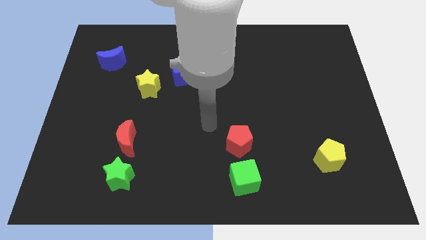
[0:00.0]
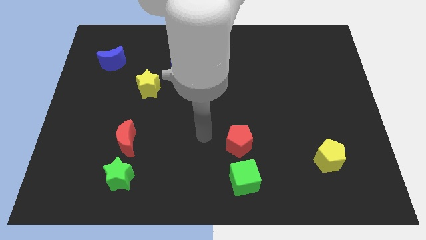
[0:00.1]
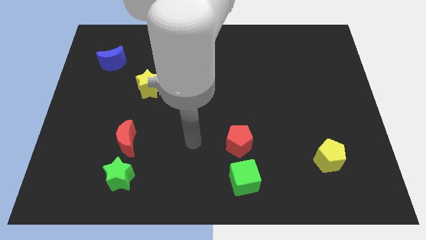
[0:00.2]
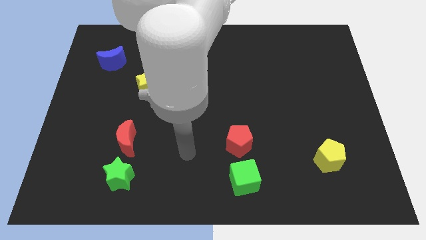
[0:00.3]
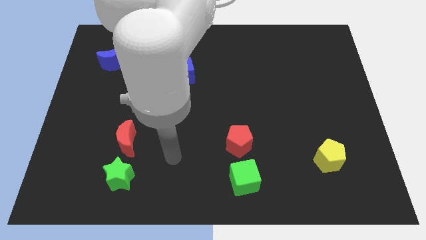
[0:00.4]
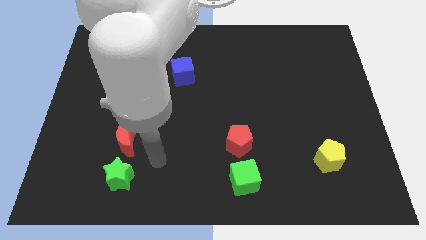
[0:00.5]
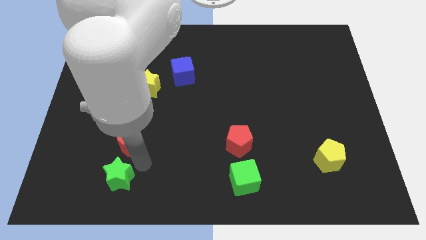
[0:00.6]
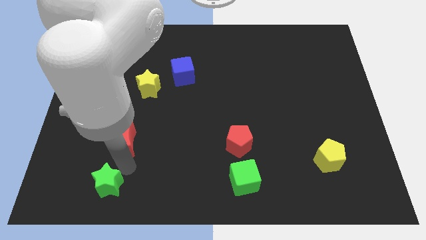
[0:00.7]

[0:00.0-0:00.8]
pull the red moon apart from the green star

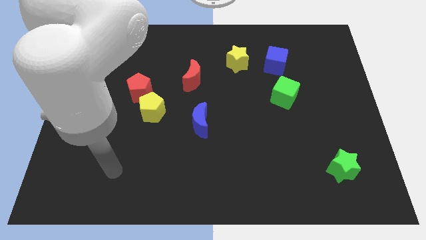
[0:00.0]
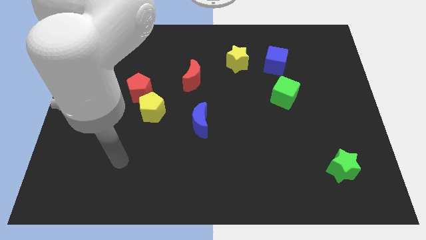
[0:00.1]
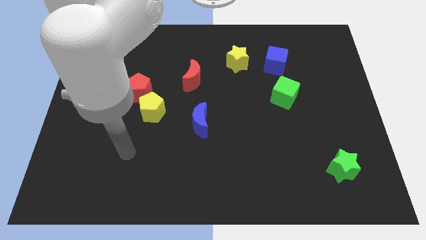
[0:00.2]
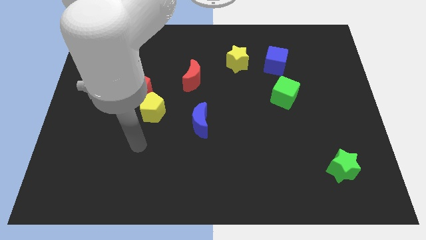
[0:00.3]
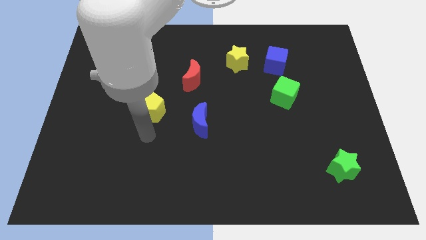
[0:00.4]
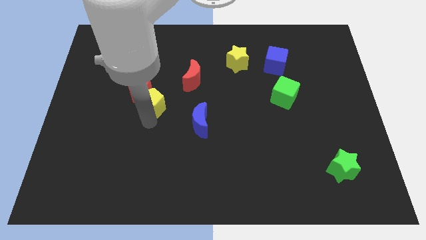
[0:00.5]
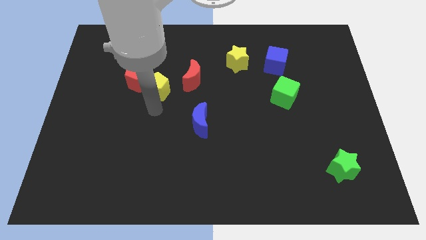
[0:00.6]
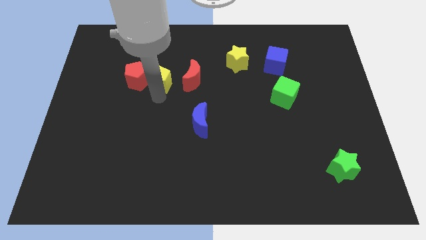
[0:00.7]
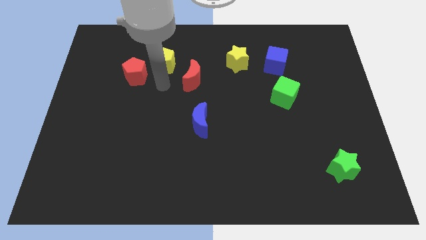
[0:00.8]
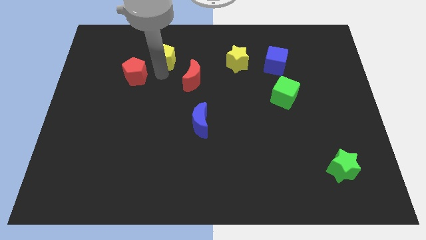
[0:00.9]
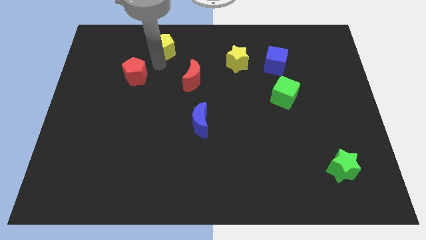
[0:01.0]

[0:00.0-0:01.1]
separate the red pentagon from the yellow pentagon

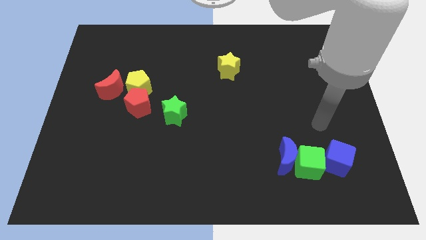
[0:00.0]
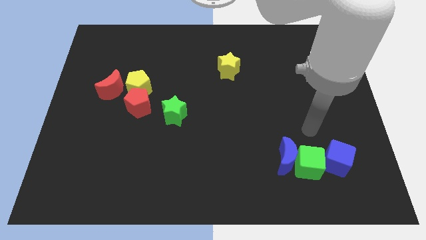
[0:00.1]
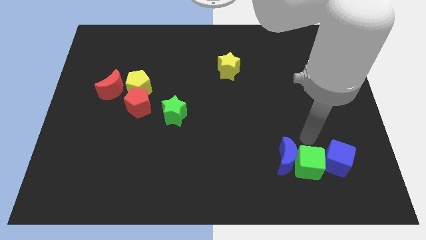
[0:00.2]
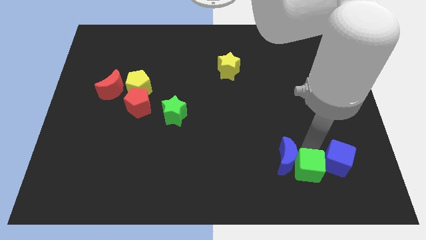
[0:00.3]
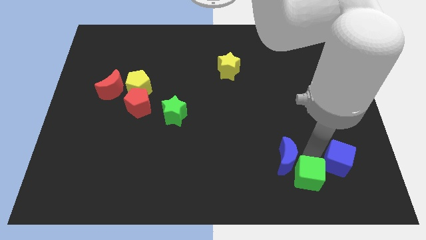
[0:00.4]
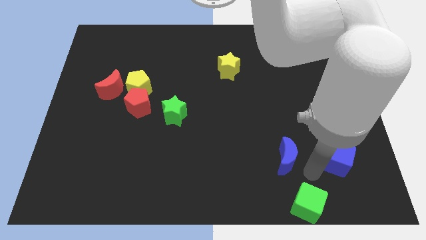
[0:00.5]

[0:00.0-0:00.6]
move the blue moon away from the green cube

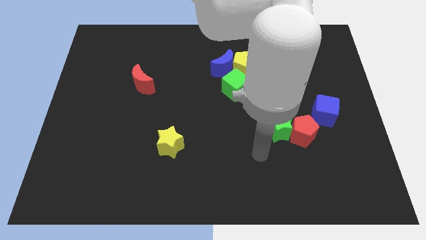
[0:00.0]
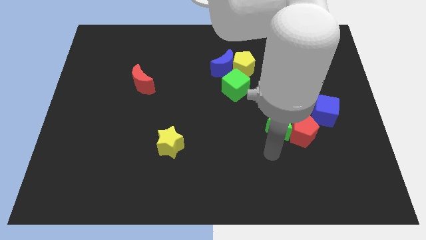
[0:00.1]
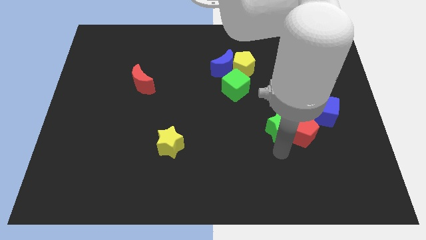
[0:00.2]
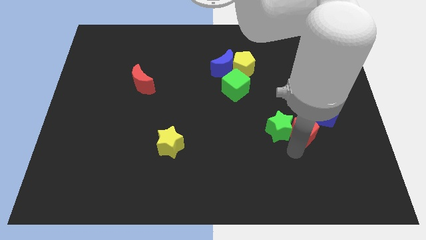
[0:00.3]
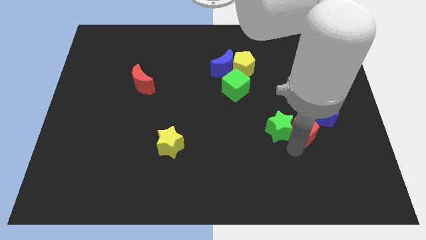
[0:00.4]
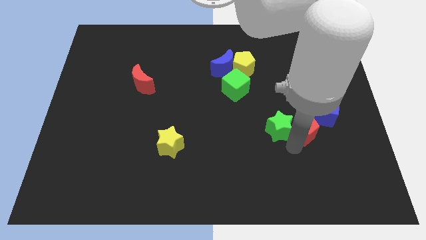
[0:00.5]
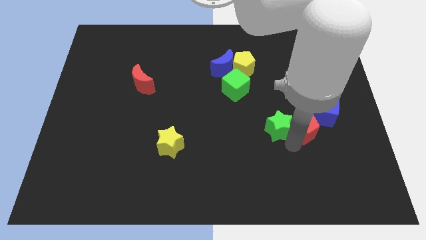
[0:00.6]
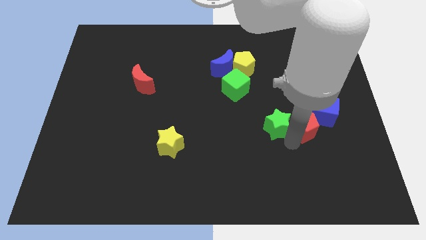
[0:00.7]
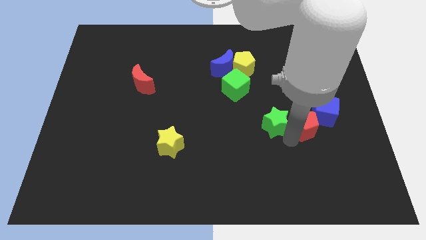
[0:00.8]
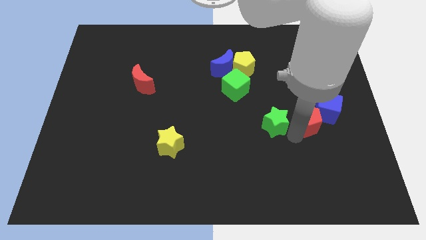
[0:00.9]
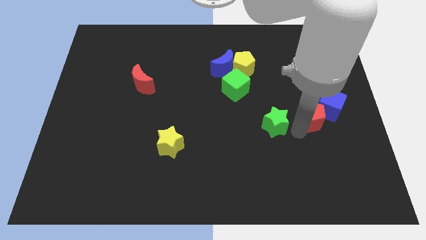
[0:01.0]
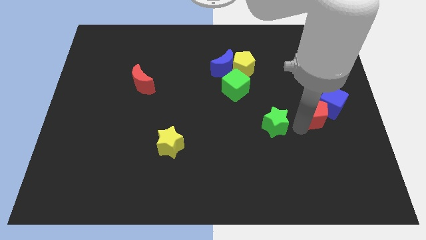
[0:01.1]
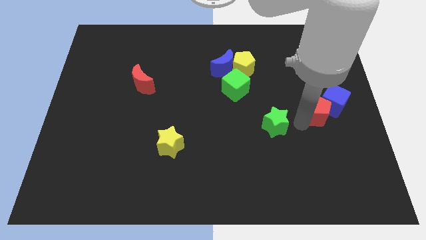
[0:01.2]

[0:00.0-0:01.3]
move the green star away from the red pentagon

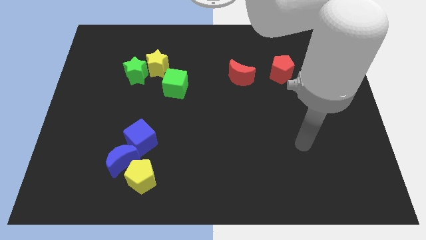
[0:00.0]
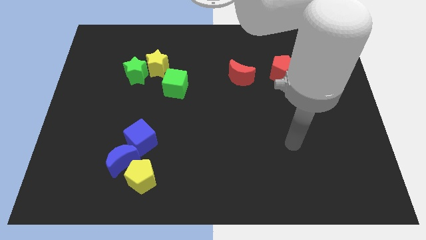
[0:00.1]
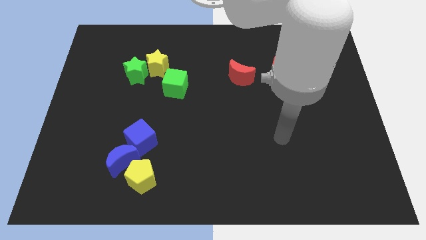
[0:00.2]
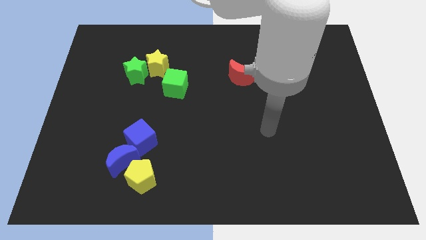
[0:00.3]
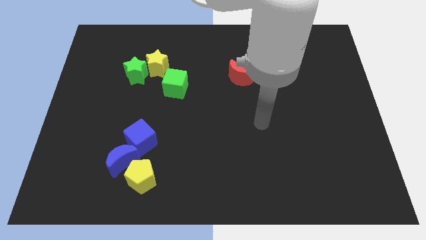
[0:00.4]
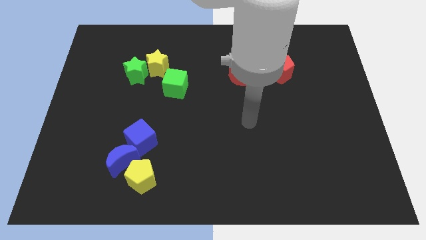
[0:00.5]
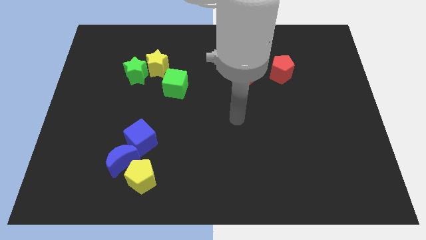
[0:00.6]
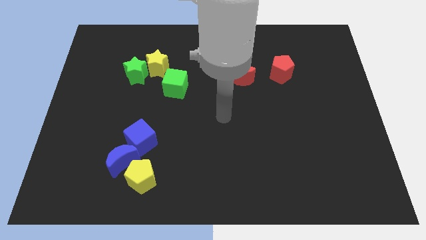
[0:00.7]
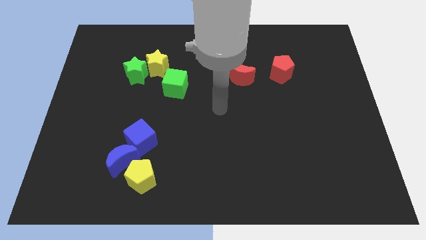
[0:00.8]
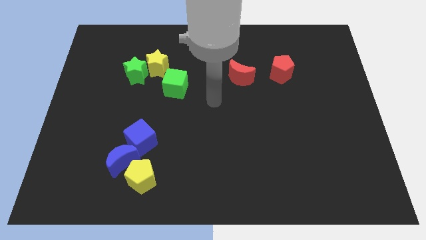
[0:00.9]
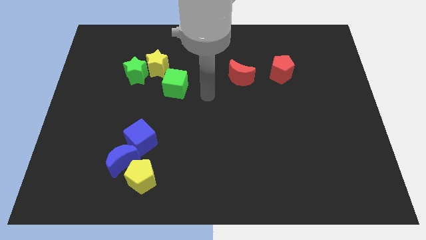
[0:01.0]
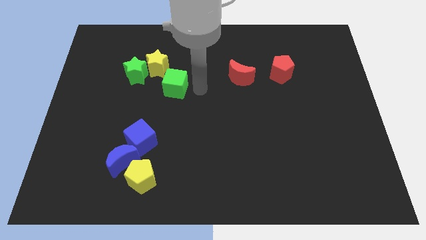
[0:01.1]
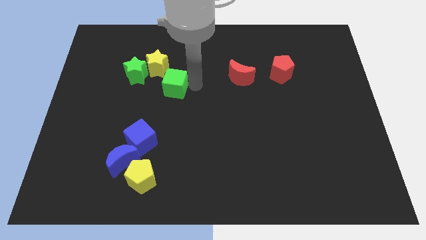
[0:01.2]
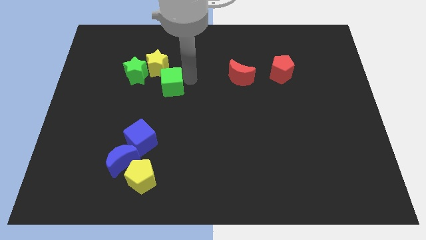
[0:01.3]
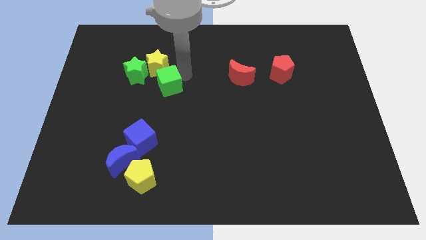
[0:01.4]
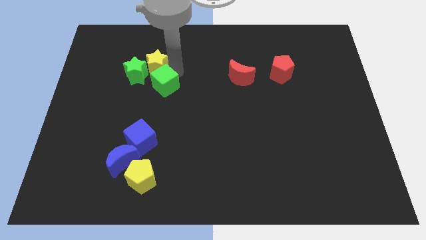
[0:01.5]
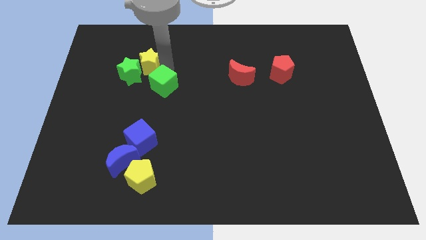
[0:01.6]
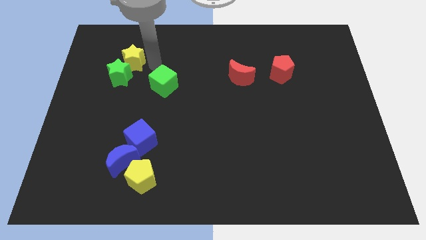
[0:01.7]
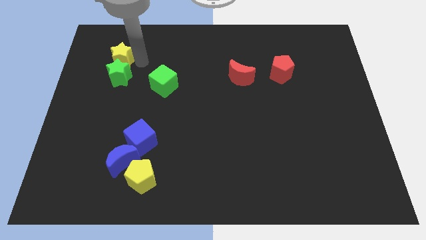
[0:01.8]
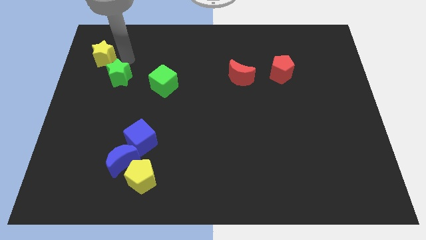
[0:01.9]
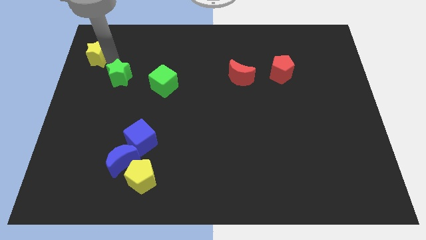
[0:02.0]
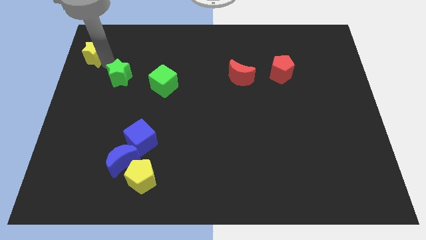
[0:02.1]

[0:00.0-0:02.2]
move the green star away from the yellow star

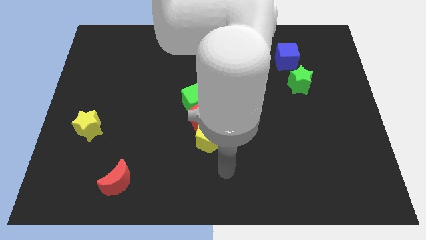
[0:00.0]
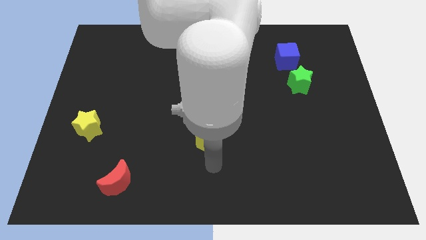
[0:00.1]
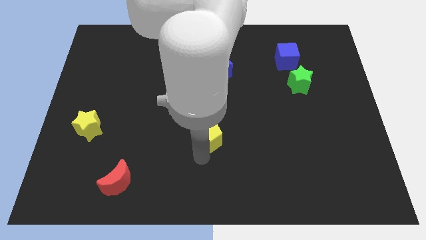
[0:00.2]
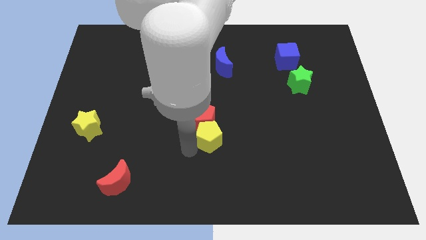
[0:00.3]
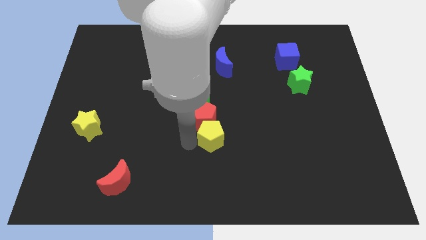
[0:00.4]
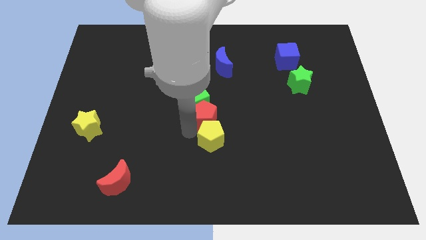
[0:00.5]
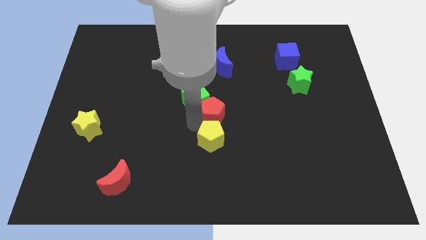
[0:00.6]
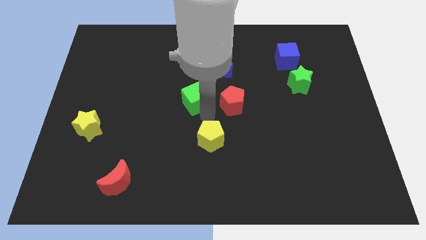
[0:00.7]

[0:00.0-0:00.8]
pull the yellow pentagon apart from the red pentagon

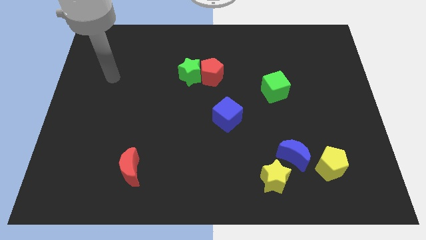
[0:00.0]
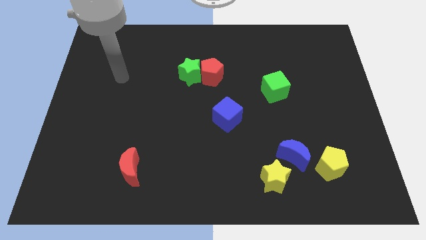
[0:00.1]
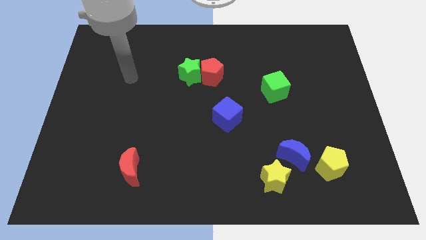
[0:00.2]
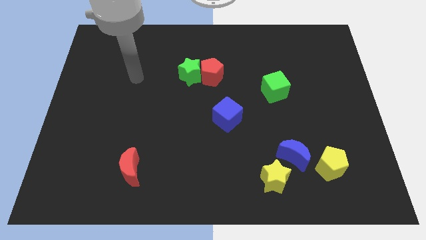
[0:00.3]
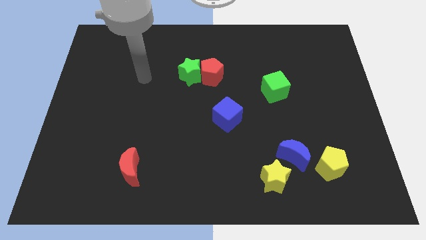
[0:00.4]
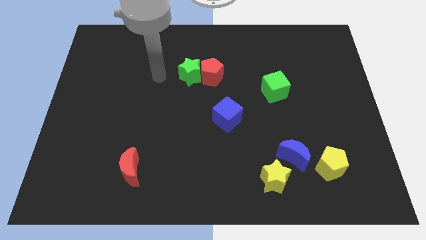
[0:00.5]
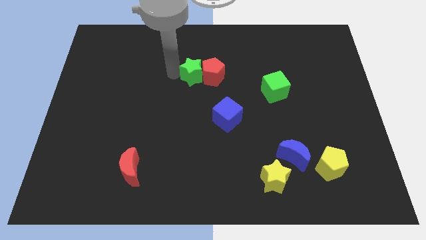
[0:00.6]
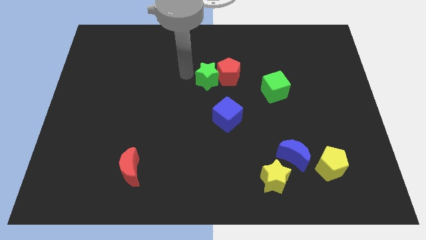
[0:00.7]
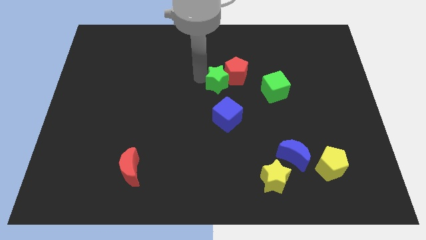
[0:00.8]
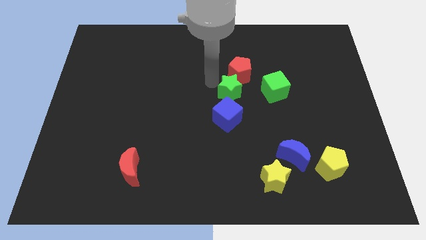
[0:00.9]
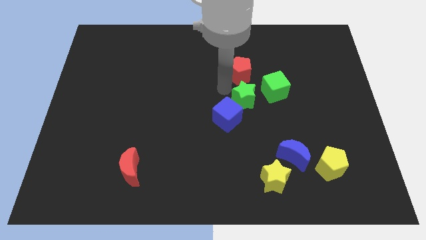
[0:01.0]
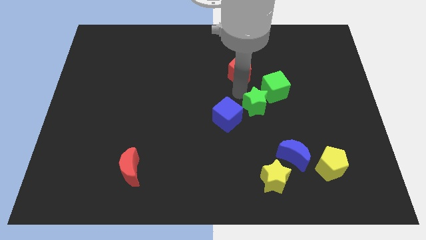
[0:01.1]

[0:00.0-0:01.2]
pull the red pentagon apart from the green star

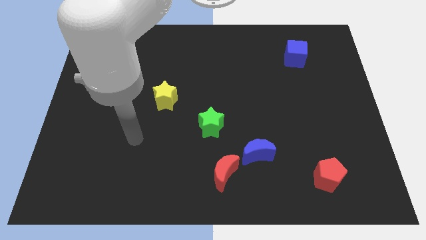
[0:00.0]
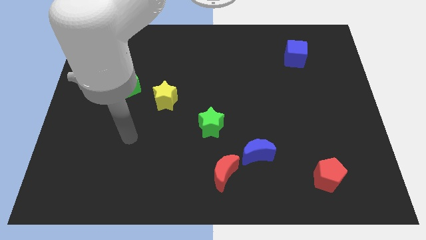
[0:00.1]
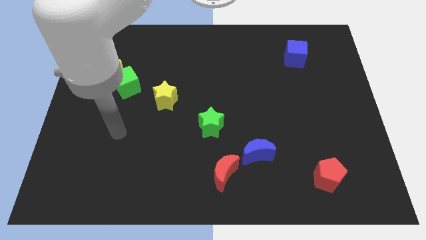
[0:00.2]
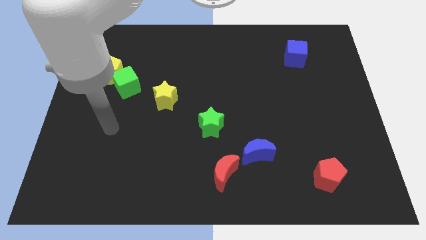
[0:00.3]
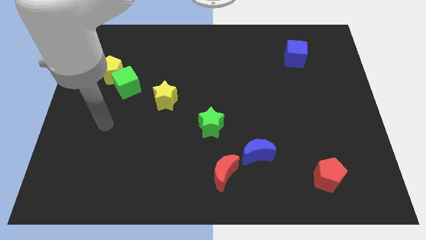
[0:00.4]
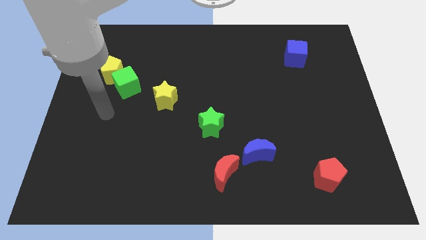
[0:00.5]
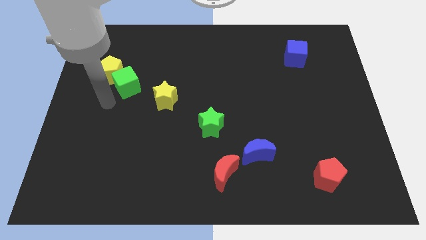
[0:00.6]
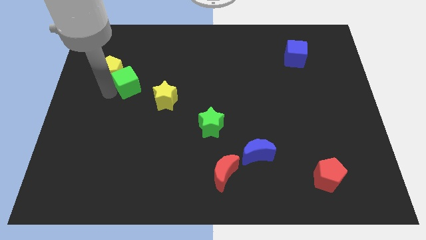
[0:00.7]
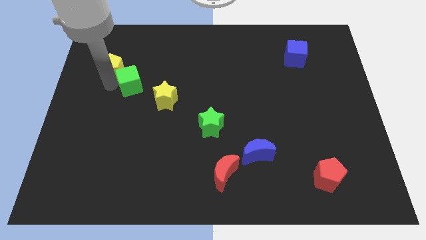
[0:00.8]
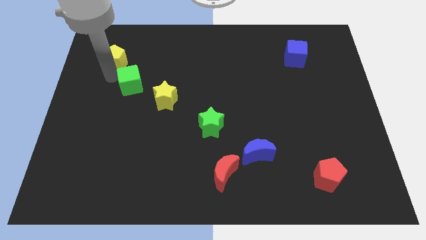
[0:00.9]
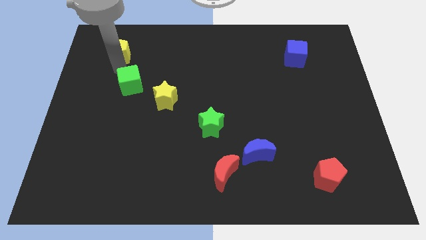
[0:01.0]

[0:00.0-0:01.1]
pull the green cube apart from the yellow pentagon

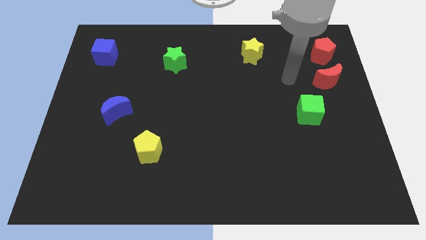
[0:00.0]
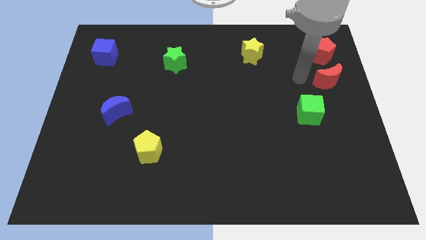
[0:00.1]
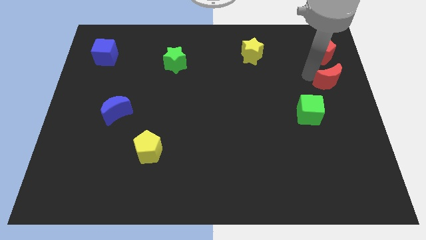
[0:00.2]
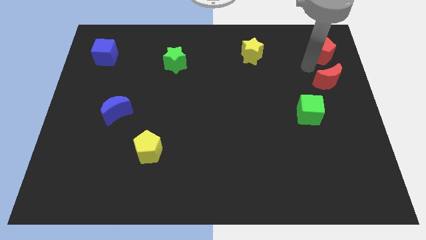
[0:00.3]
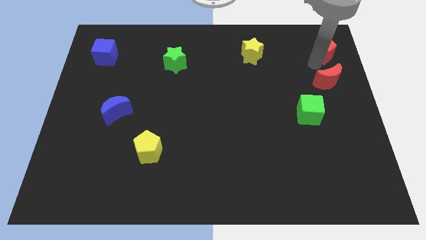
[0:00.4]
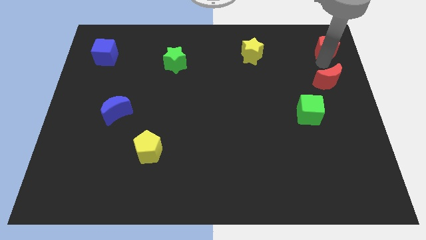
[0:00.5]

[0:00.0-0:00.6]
move the red moon away from the red pentagon
